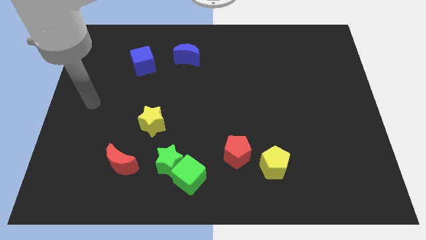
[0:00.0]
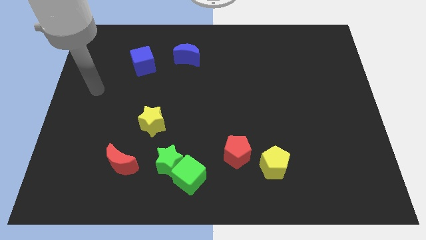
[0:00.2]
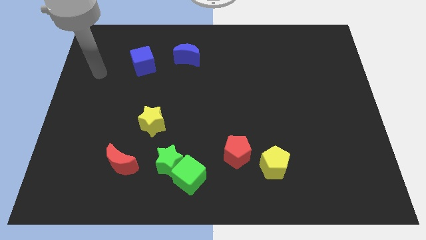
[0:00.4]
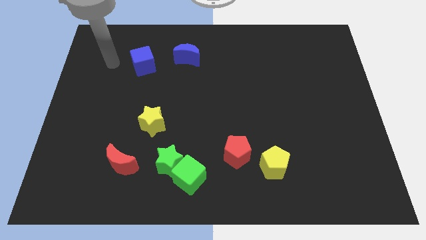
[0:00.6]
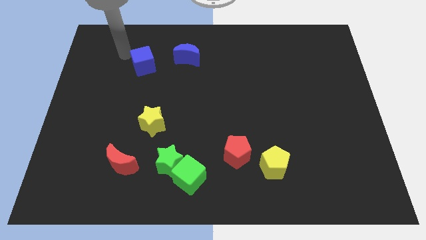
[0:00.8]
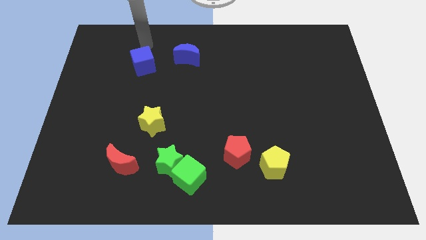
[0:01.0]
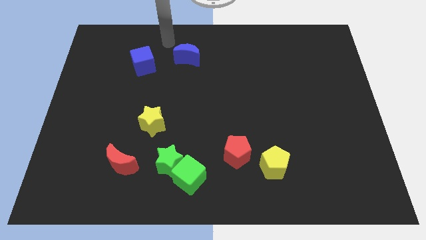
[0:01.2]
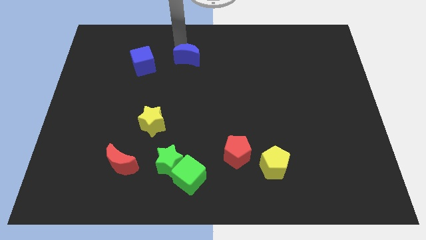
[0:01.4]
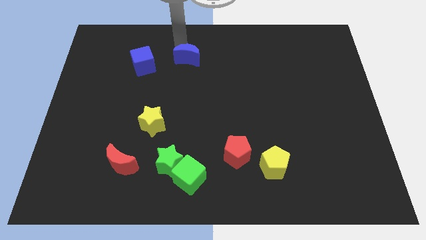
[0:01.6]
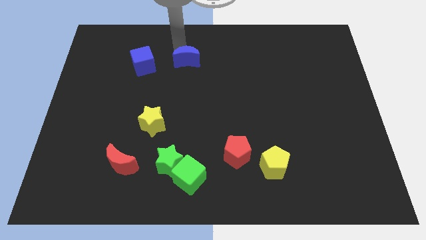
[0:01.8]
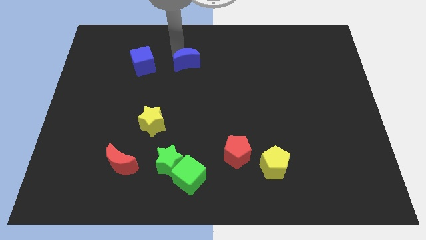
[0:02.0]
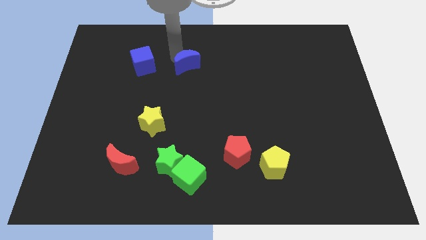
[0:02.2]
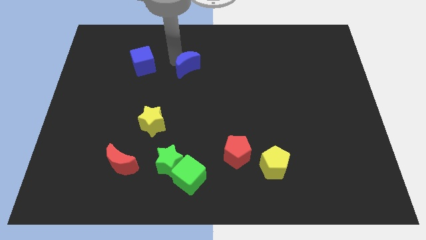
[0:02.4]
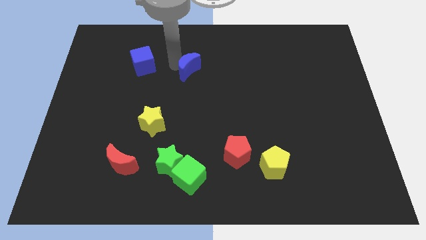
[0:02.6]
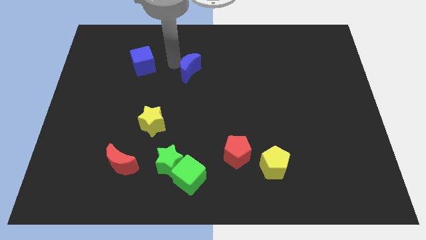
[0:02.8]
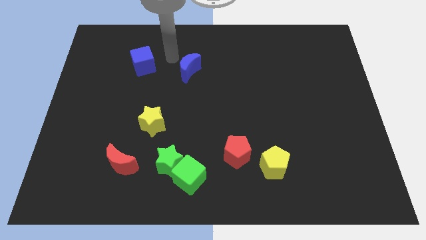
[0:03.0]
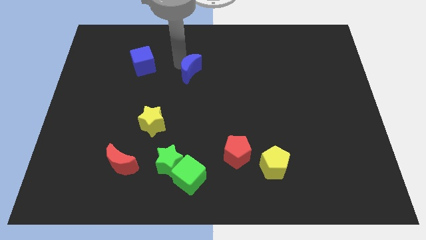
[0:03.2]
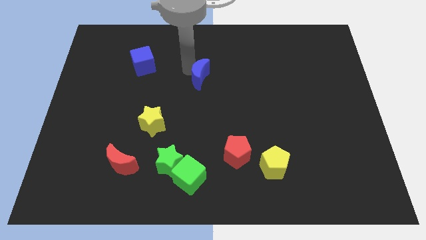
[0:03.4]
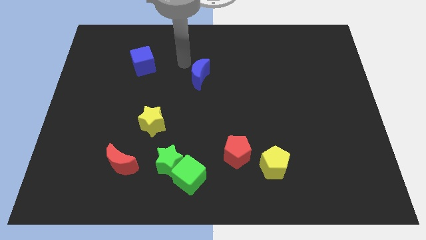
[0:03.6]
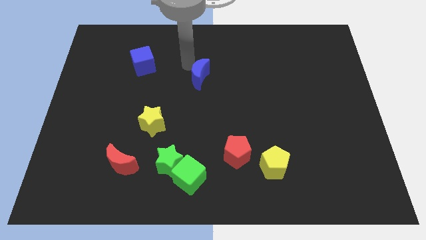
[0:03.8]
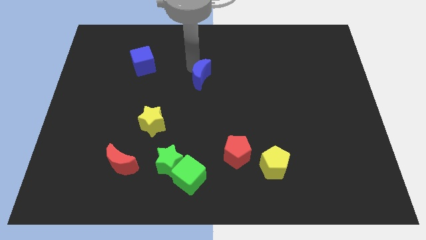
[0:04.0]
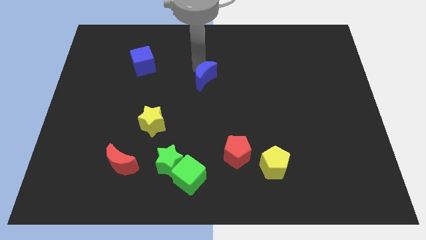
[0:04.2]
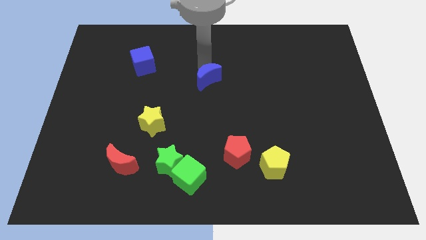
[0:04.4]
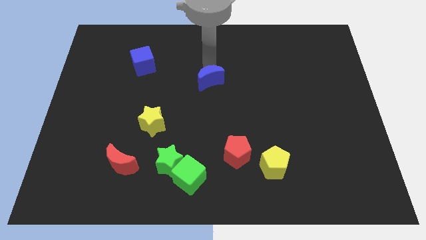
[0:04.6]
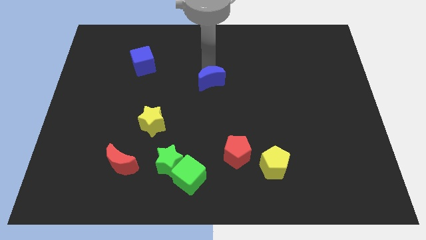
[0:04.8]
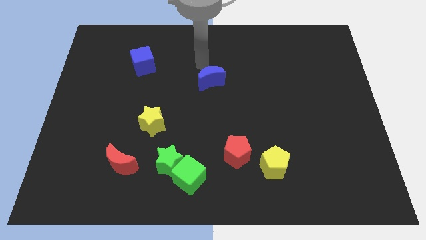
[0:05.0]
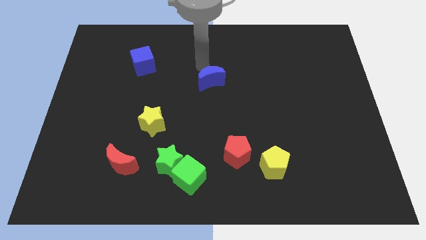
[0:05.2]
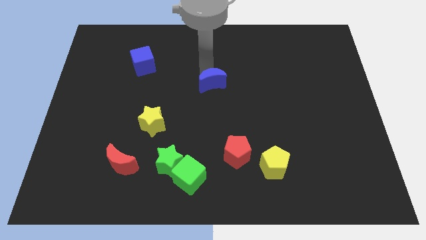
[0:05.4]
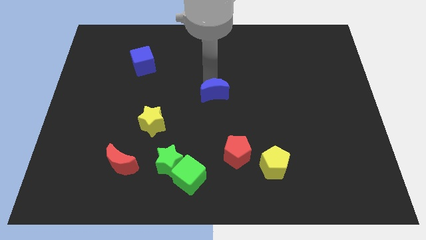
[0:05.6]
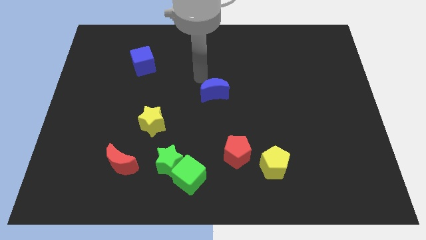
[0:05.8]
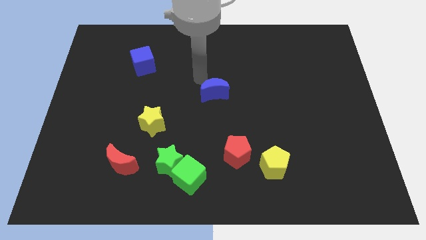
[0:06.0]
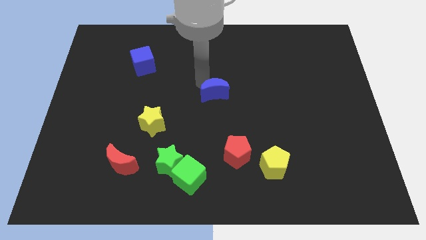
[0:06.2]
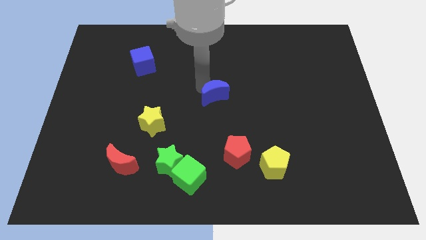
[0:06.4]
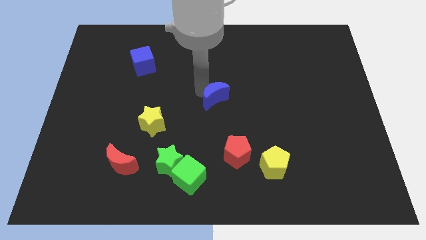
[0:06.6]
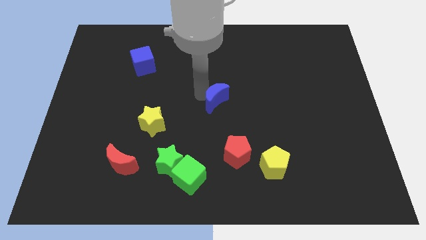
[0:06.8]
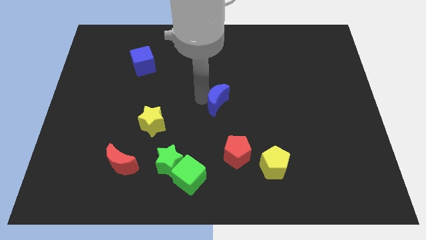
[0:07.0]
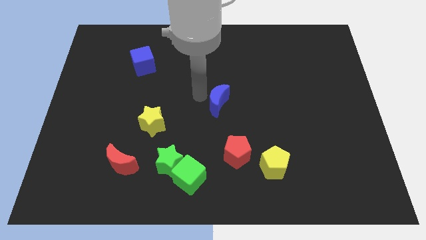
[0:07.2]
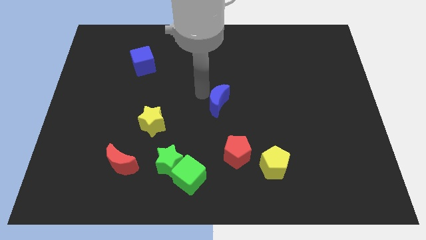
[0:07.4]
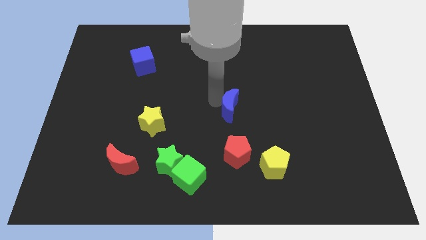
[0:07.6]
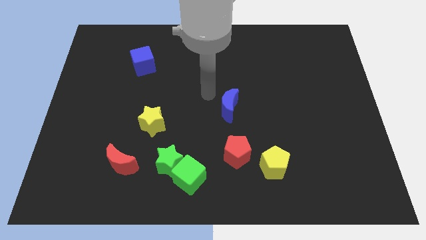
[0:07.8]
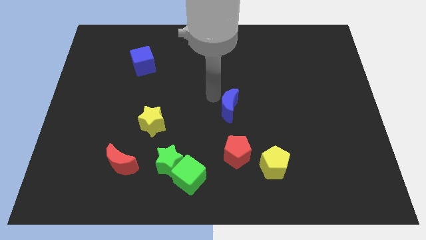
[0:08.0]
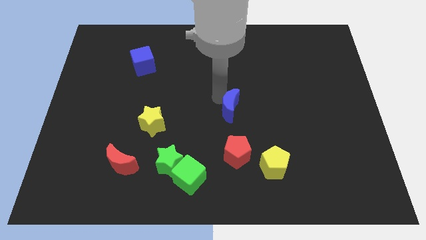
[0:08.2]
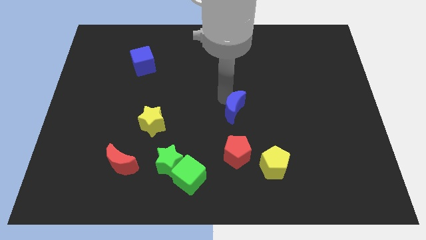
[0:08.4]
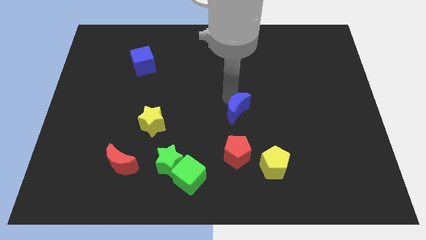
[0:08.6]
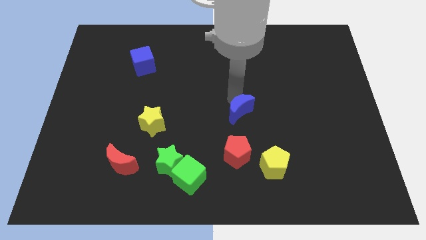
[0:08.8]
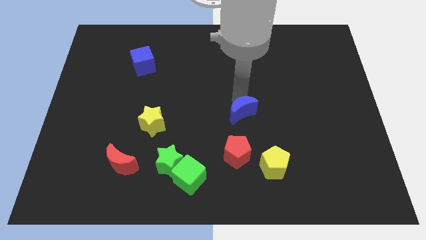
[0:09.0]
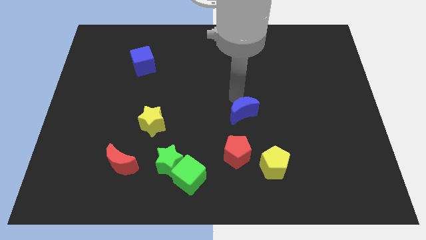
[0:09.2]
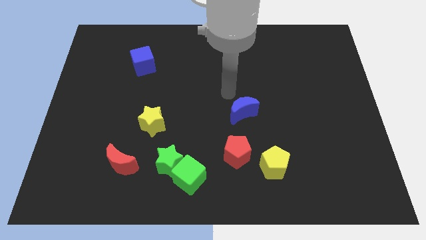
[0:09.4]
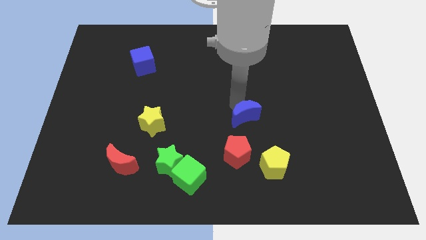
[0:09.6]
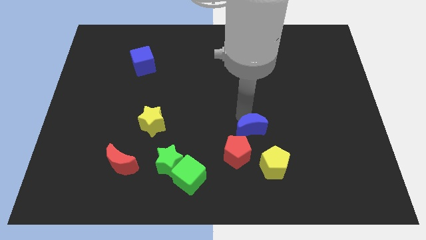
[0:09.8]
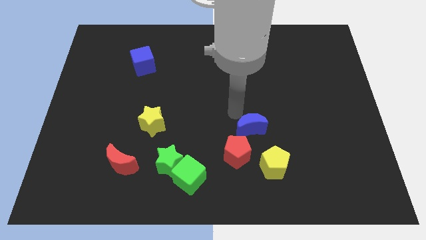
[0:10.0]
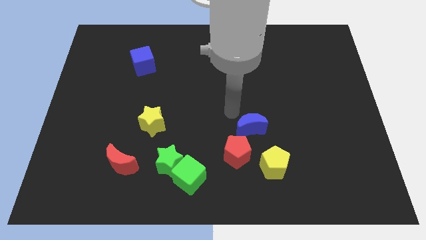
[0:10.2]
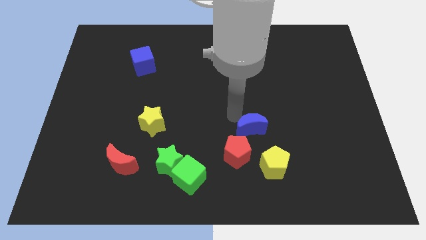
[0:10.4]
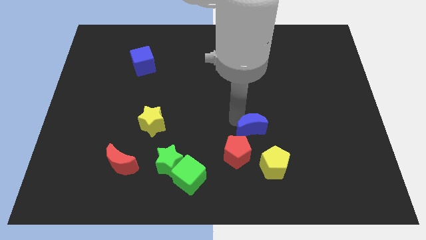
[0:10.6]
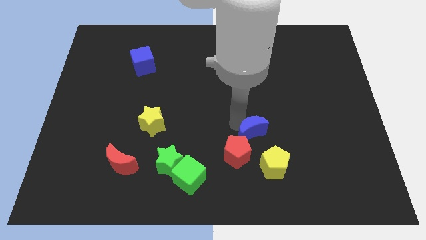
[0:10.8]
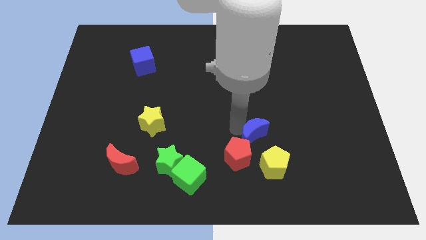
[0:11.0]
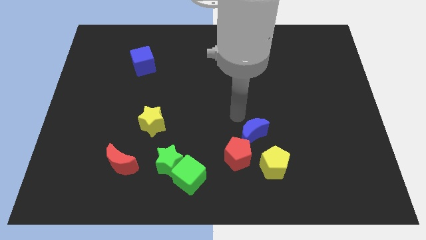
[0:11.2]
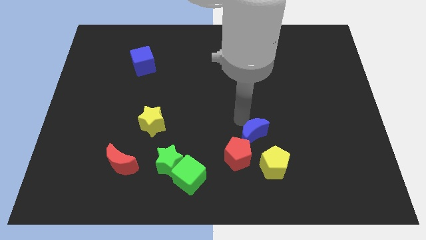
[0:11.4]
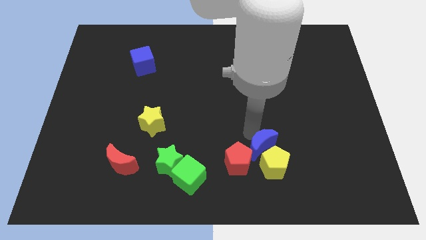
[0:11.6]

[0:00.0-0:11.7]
move the blue moon to the yellow pentagon

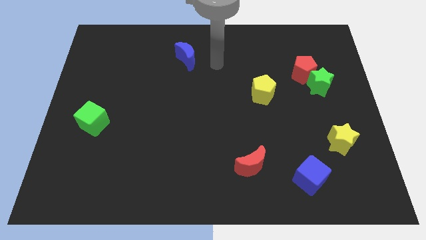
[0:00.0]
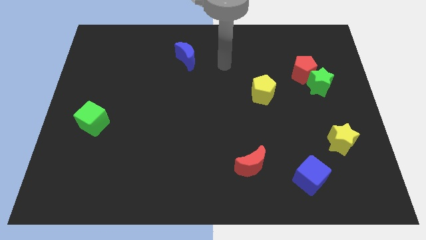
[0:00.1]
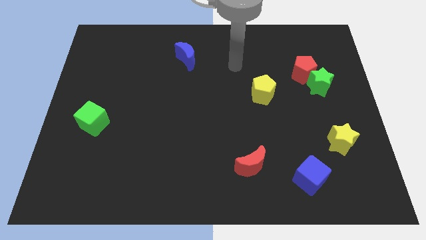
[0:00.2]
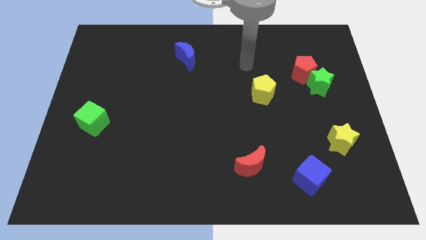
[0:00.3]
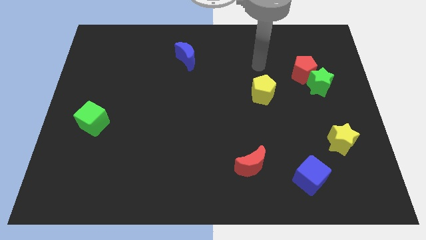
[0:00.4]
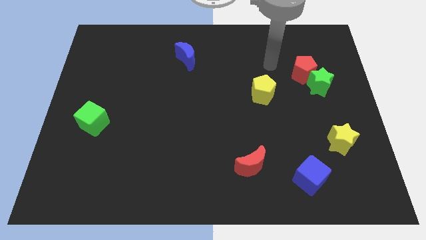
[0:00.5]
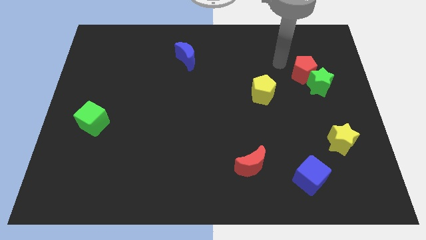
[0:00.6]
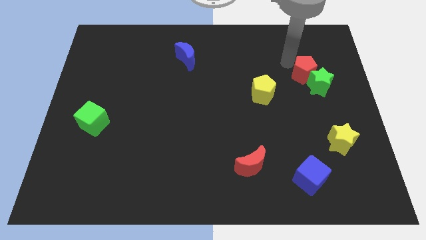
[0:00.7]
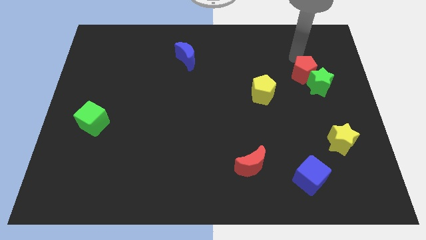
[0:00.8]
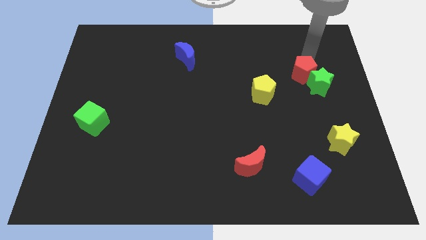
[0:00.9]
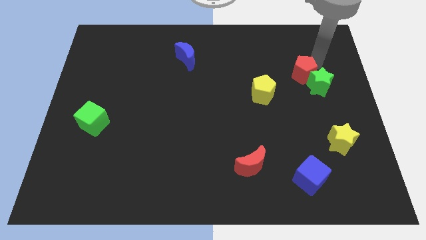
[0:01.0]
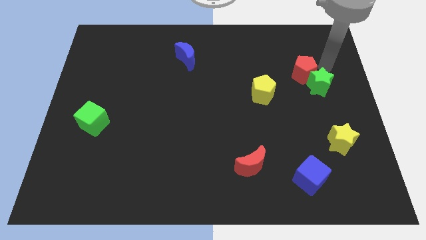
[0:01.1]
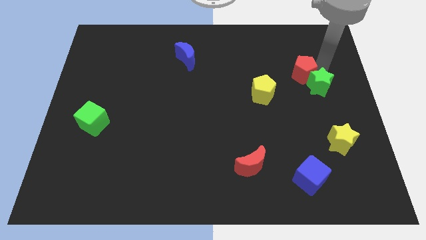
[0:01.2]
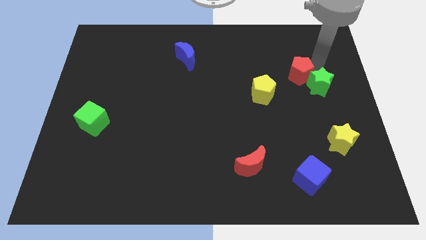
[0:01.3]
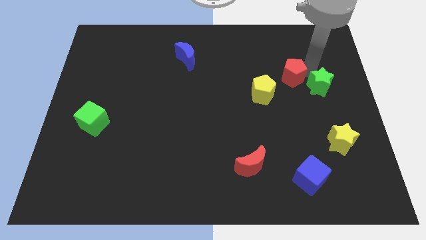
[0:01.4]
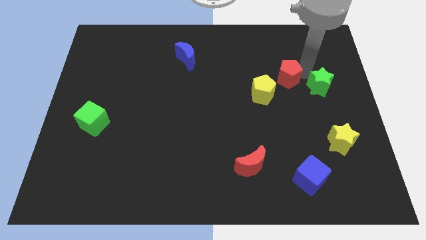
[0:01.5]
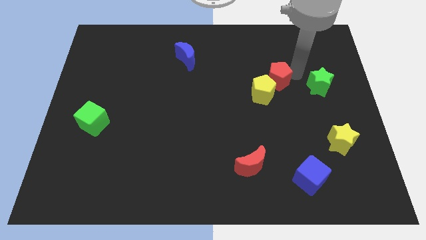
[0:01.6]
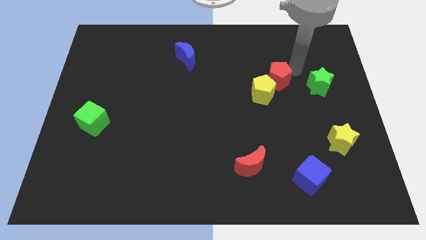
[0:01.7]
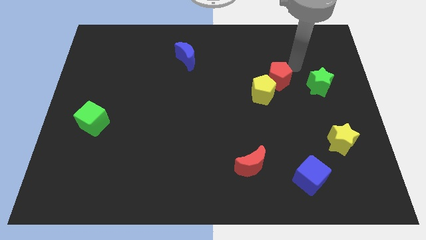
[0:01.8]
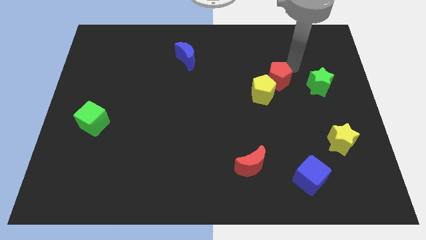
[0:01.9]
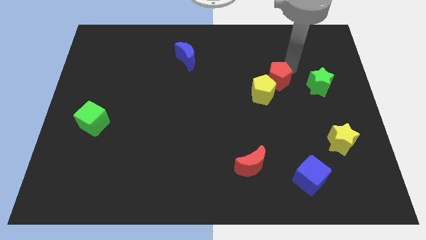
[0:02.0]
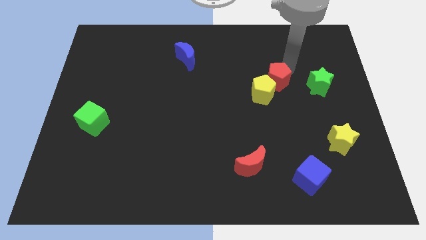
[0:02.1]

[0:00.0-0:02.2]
slide the red pentagon next to the yellow pentagon
